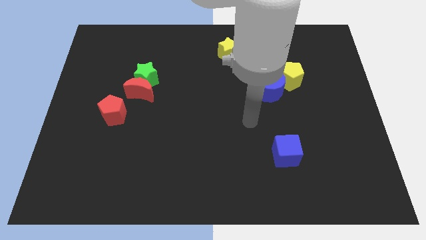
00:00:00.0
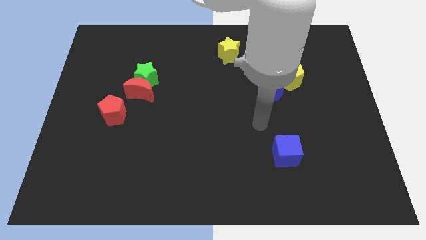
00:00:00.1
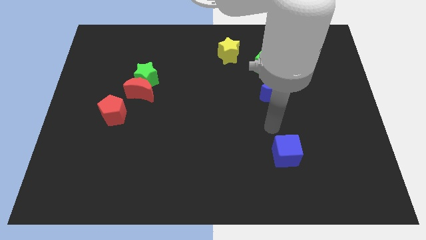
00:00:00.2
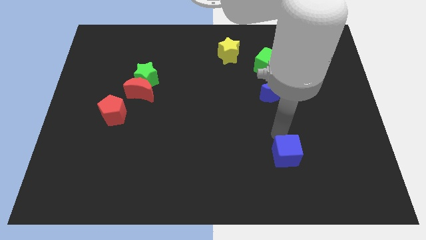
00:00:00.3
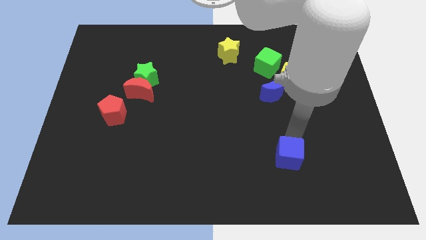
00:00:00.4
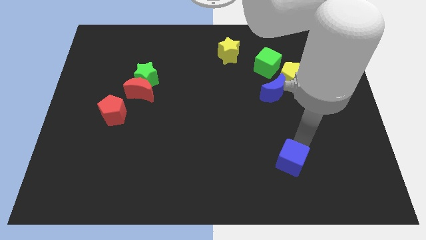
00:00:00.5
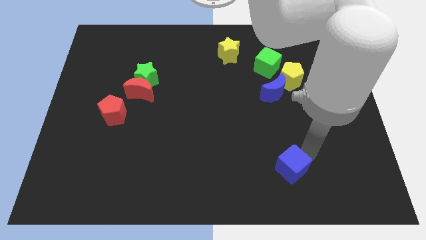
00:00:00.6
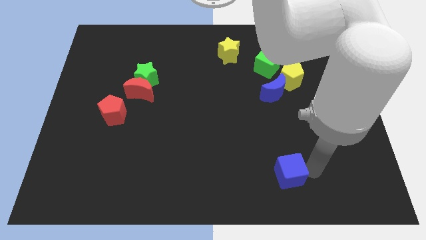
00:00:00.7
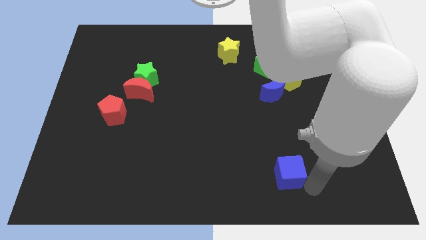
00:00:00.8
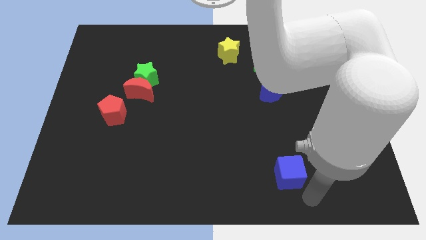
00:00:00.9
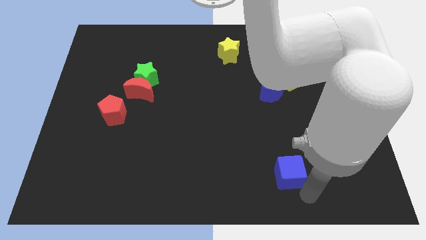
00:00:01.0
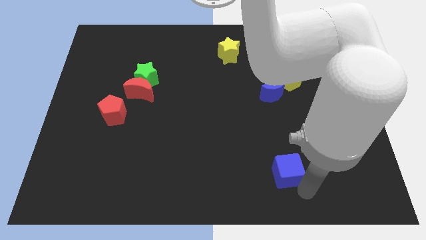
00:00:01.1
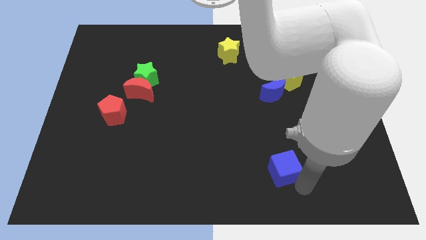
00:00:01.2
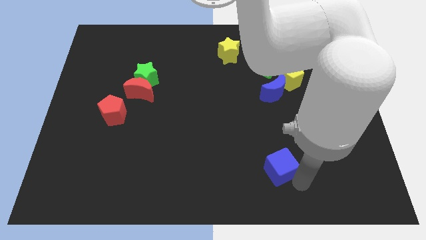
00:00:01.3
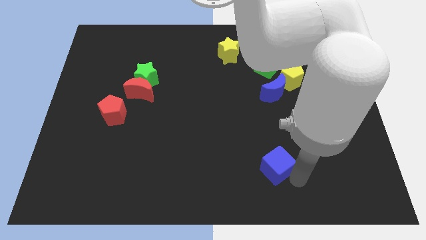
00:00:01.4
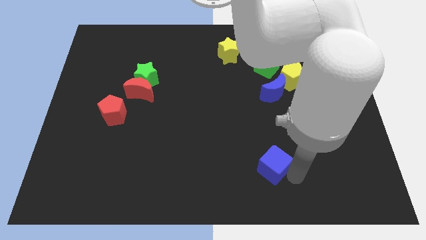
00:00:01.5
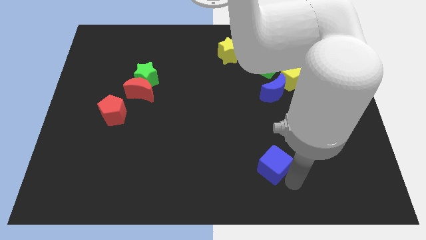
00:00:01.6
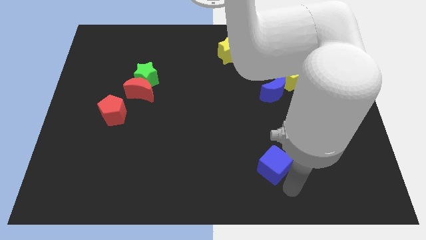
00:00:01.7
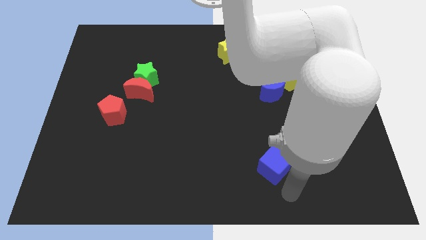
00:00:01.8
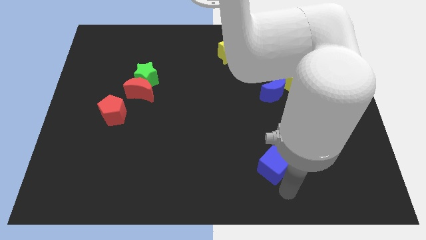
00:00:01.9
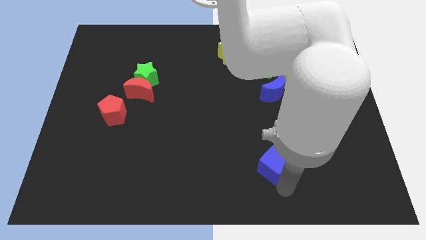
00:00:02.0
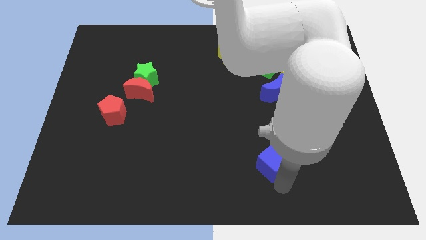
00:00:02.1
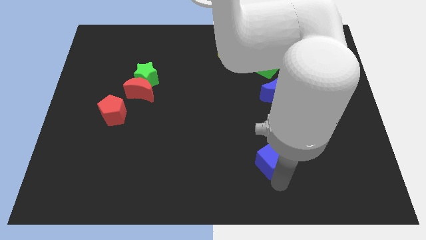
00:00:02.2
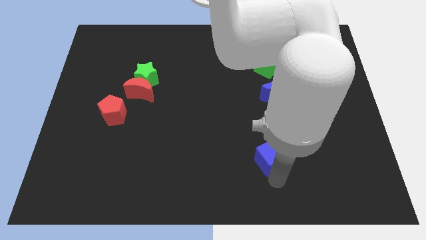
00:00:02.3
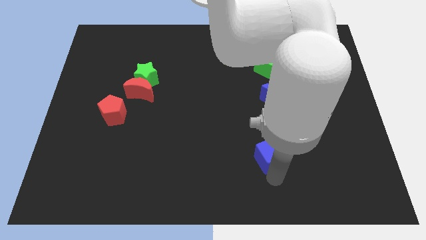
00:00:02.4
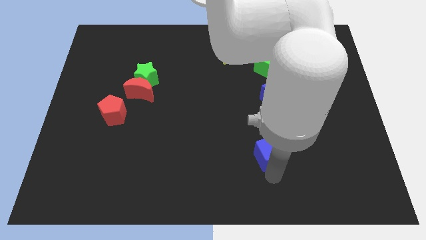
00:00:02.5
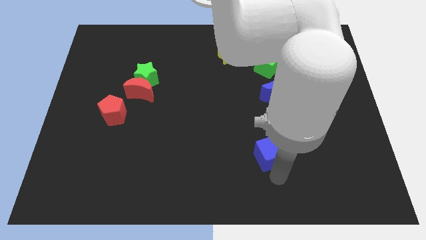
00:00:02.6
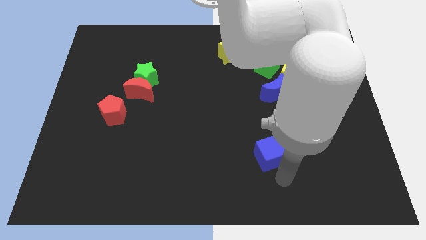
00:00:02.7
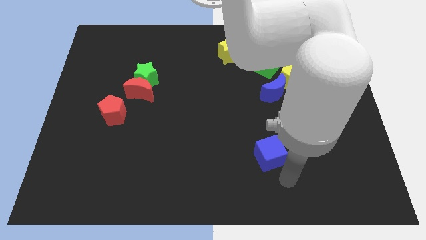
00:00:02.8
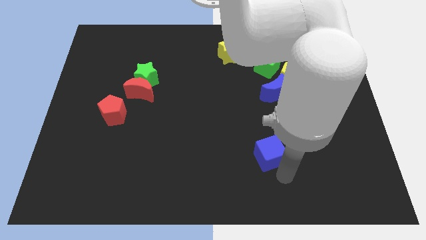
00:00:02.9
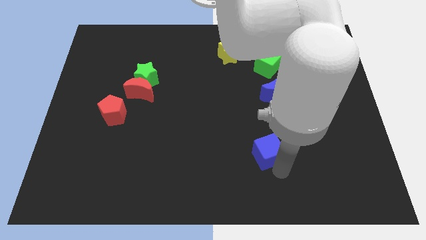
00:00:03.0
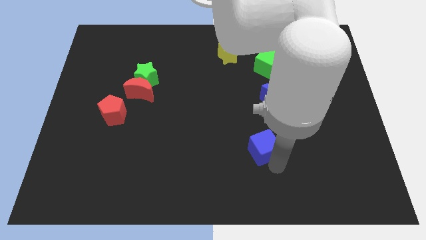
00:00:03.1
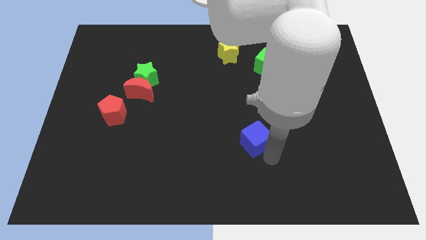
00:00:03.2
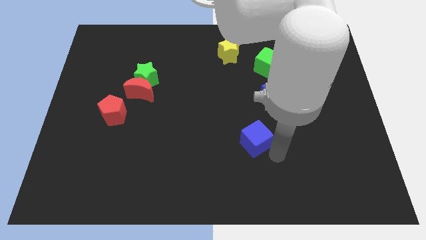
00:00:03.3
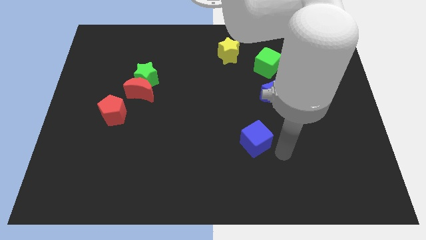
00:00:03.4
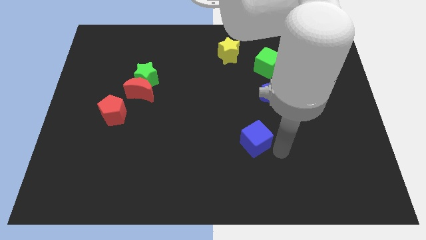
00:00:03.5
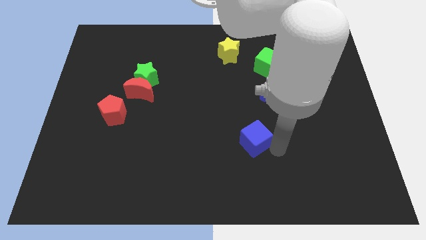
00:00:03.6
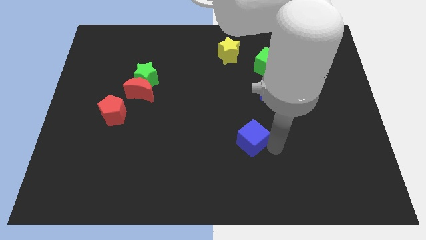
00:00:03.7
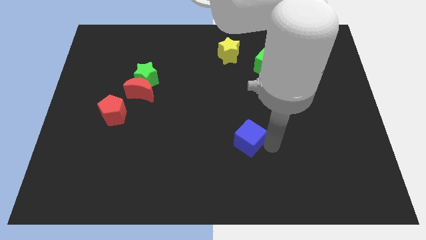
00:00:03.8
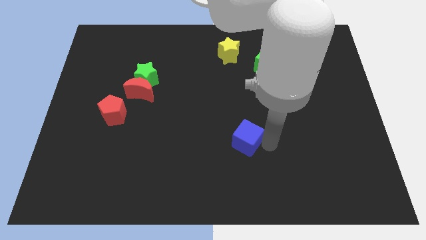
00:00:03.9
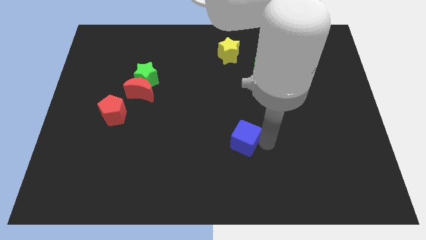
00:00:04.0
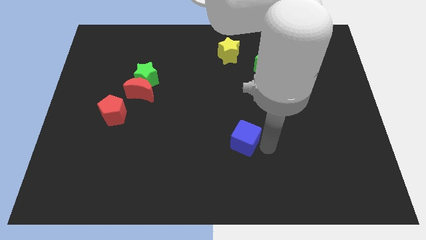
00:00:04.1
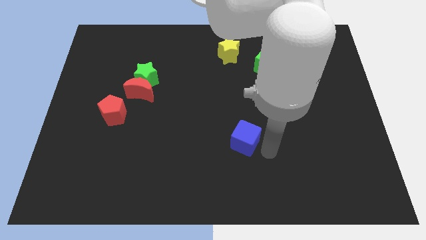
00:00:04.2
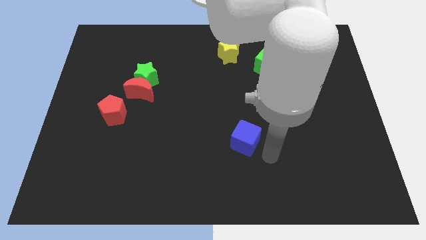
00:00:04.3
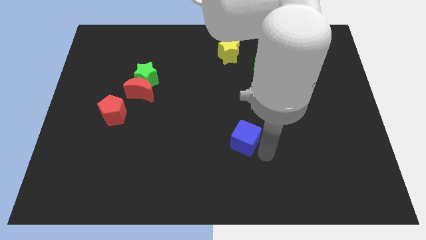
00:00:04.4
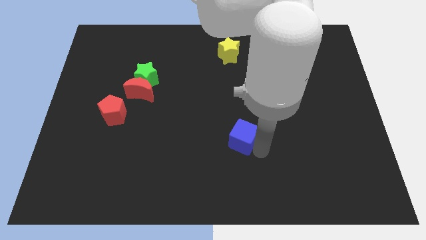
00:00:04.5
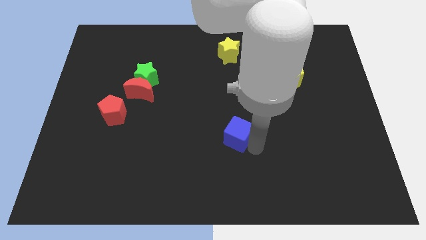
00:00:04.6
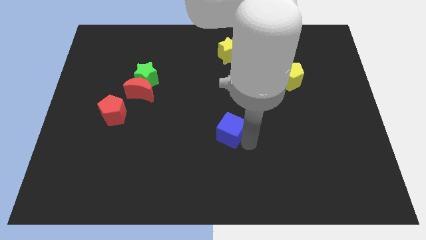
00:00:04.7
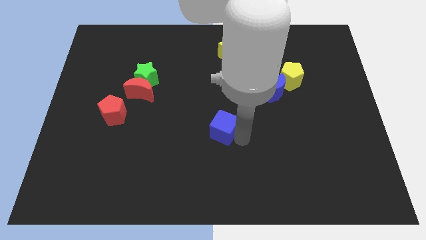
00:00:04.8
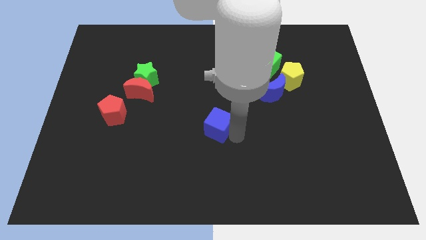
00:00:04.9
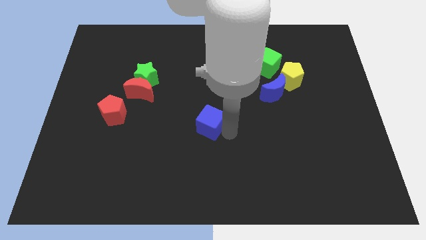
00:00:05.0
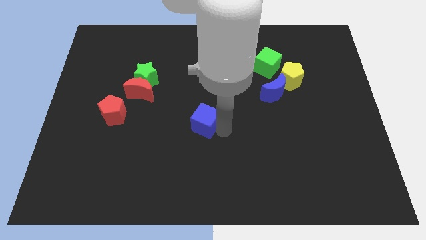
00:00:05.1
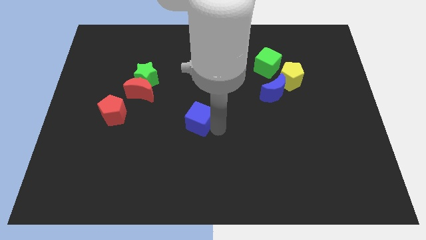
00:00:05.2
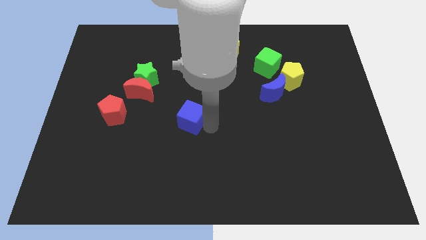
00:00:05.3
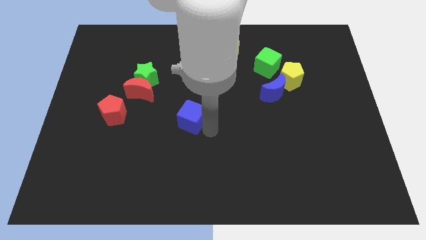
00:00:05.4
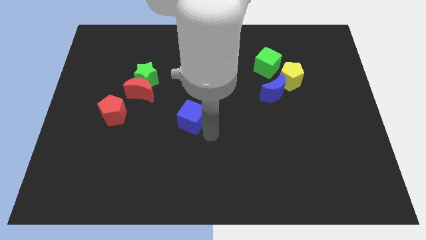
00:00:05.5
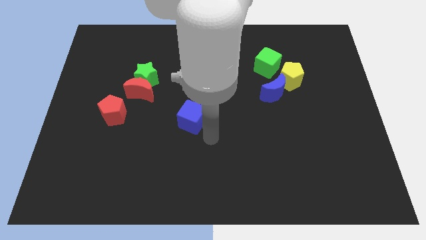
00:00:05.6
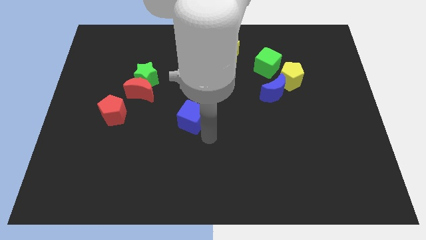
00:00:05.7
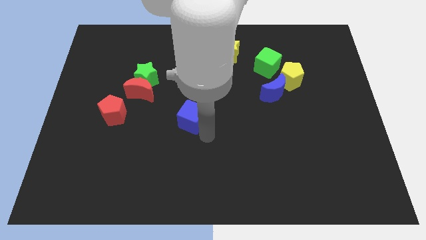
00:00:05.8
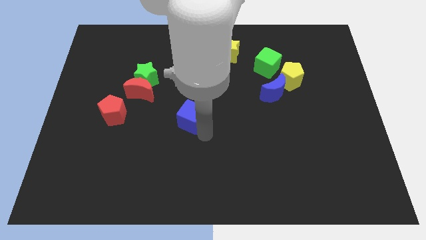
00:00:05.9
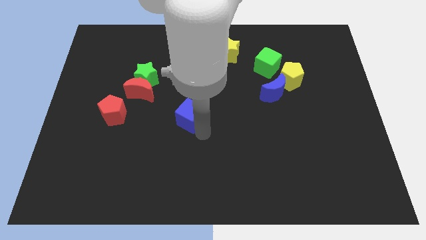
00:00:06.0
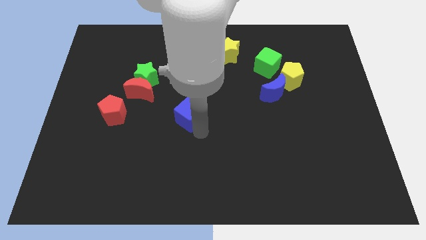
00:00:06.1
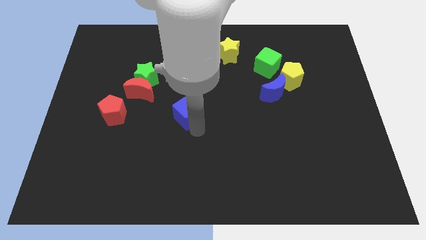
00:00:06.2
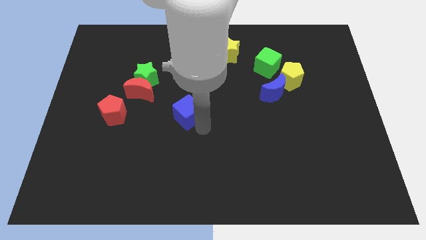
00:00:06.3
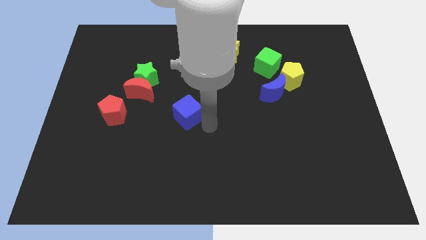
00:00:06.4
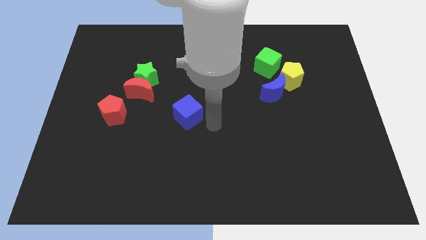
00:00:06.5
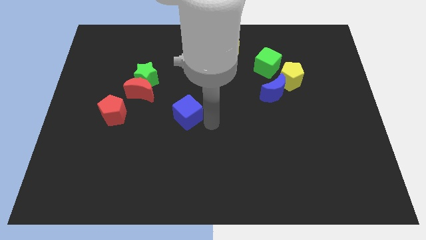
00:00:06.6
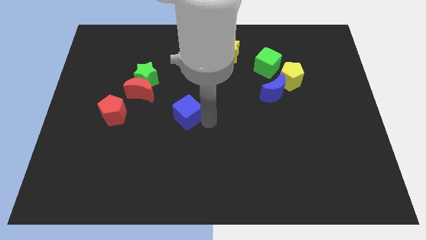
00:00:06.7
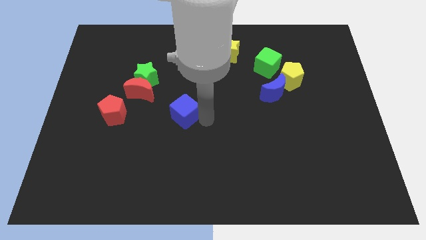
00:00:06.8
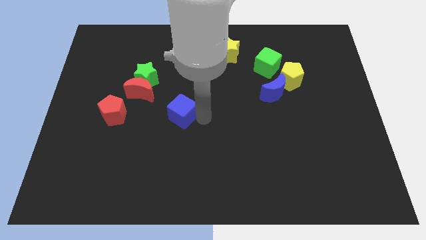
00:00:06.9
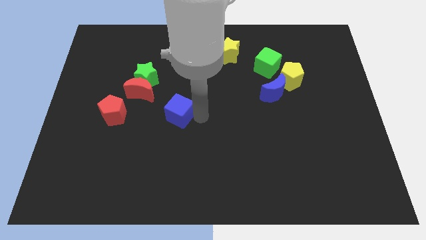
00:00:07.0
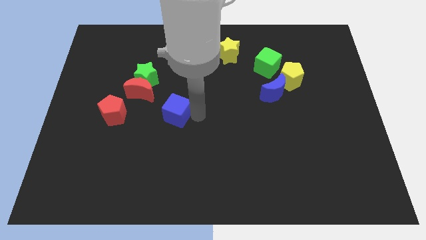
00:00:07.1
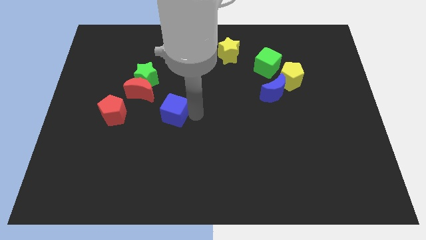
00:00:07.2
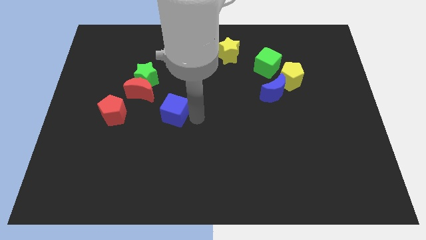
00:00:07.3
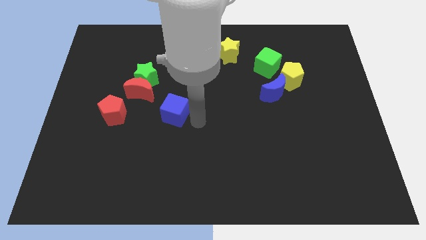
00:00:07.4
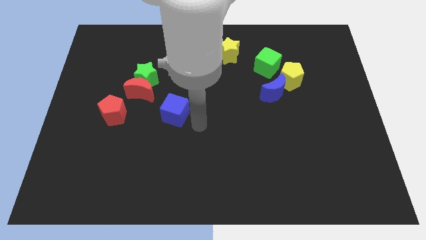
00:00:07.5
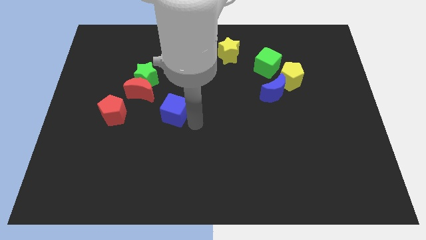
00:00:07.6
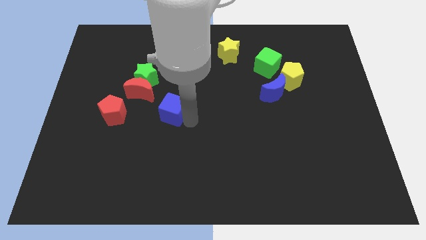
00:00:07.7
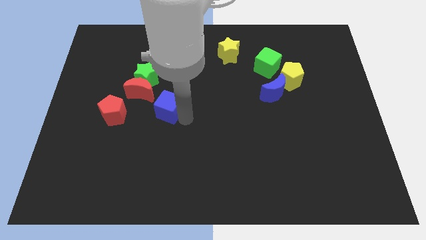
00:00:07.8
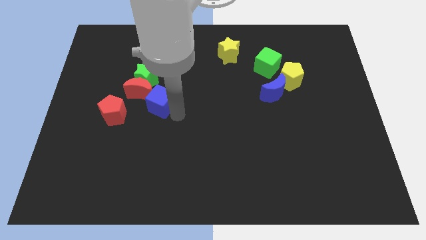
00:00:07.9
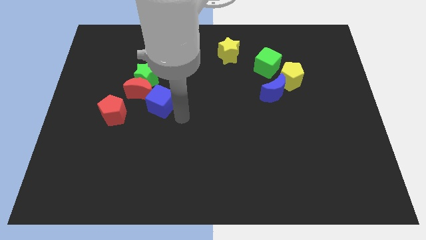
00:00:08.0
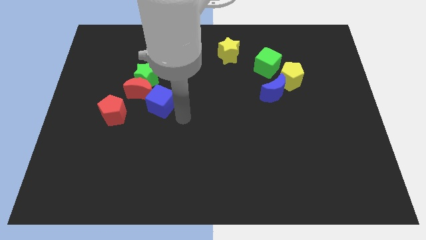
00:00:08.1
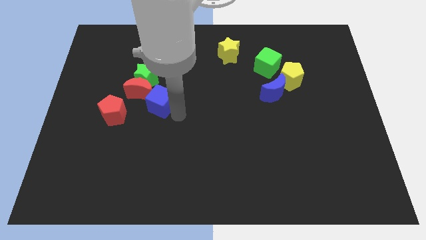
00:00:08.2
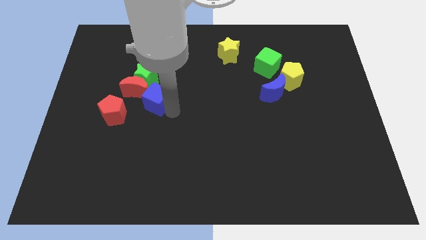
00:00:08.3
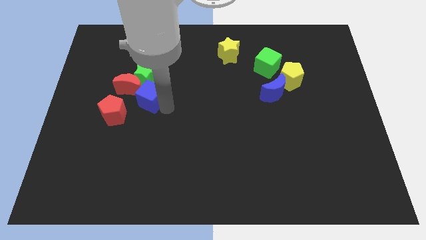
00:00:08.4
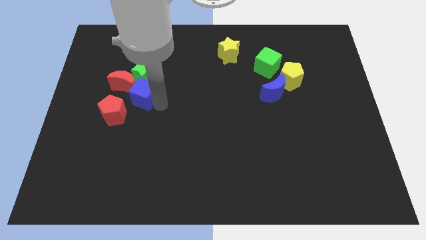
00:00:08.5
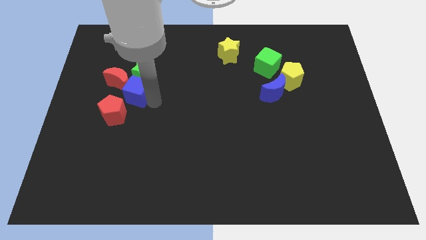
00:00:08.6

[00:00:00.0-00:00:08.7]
slide the blue cube close to the red moon
